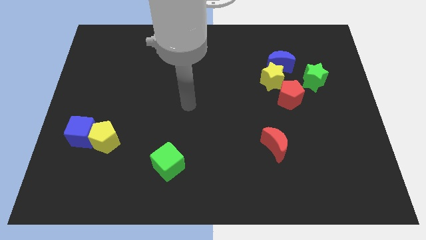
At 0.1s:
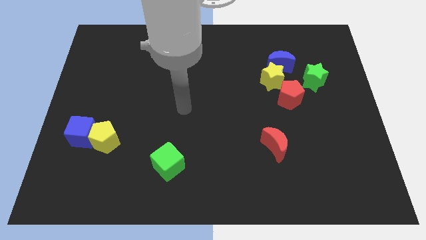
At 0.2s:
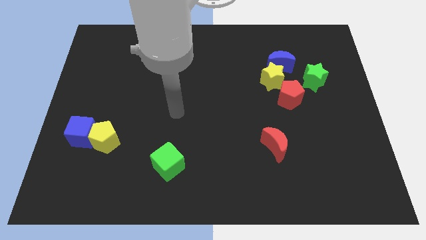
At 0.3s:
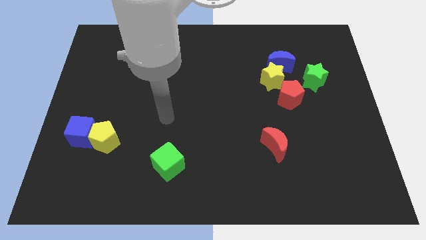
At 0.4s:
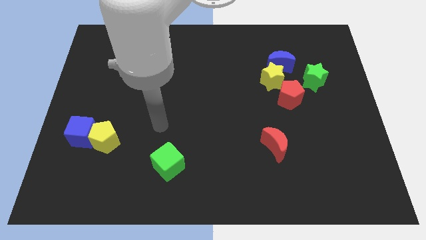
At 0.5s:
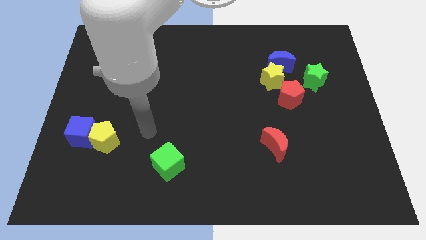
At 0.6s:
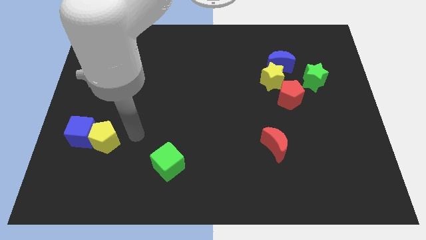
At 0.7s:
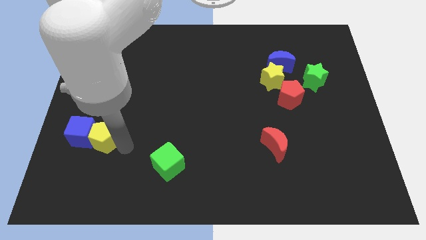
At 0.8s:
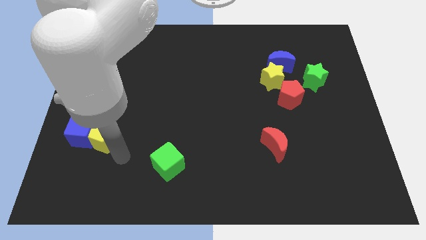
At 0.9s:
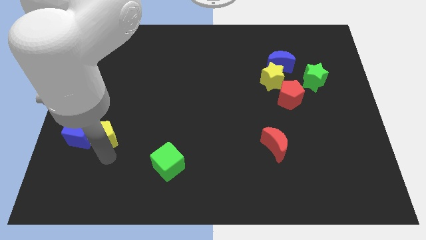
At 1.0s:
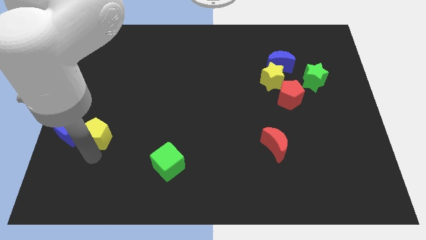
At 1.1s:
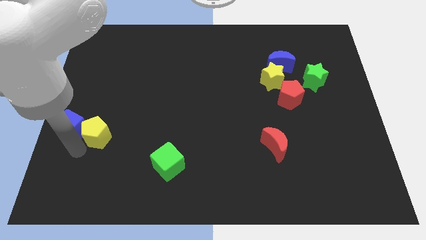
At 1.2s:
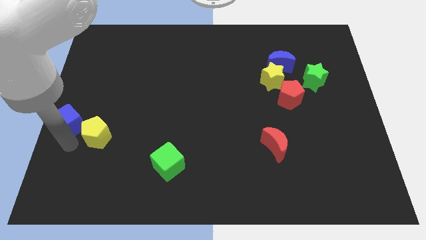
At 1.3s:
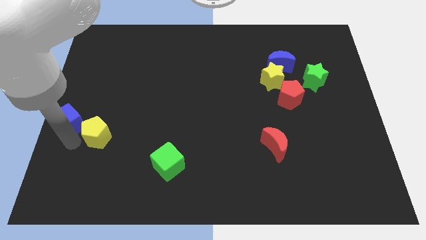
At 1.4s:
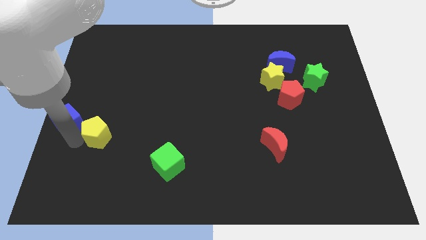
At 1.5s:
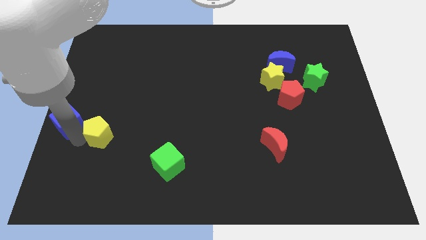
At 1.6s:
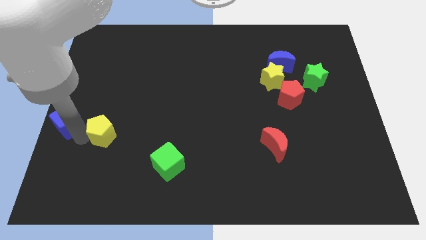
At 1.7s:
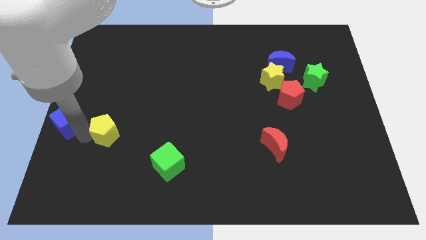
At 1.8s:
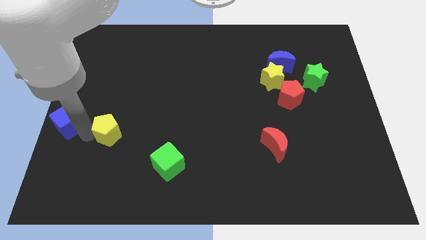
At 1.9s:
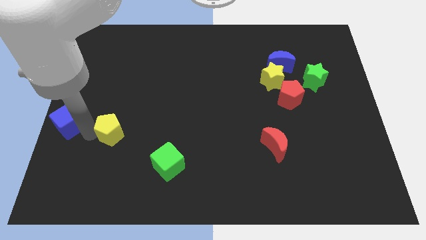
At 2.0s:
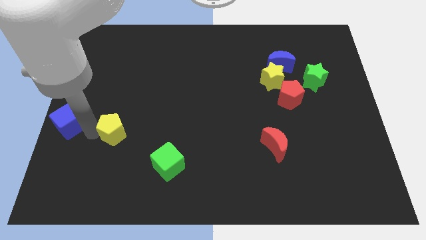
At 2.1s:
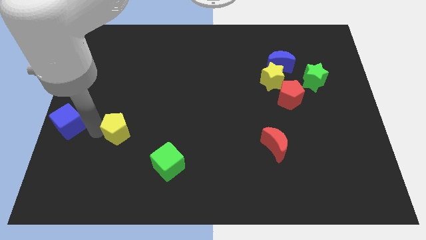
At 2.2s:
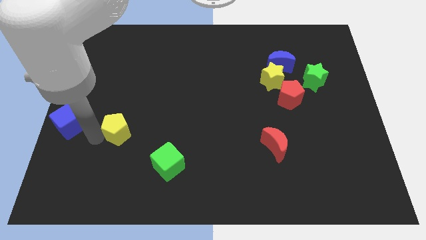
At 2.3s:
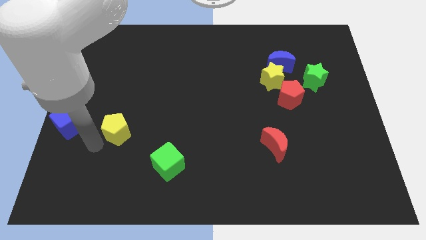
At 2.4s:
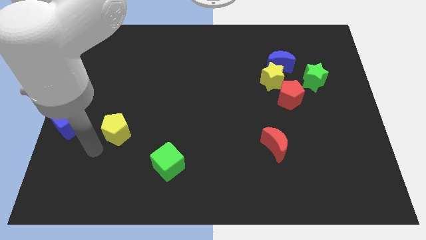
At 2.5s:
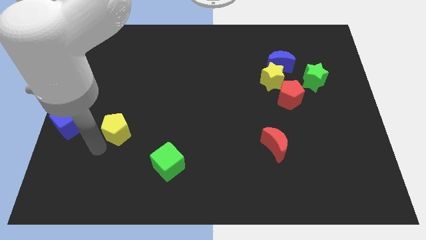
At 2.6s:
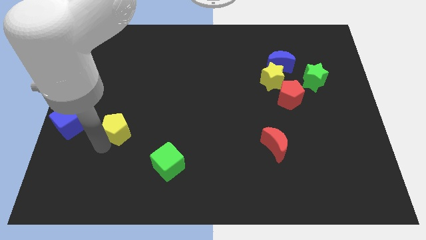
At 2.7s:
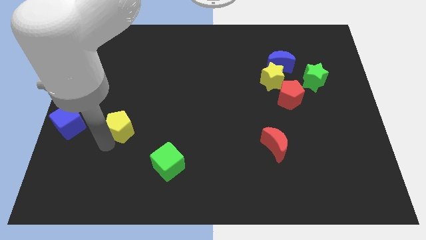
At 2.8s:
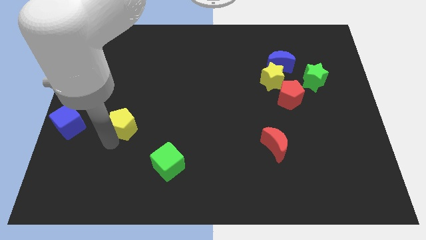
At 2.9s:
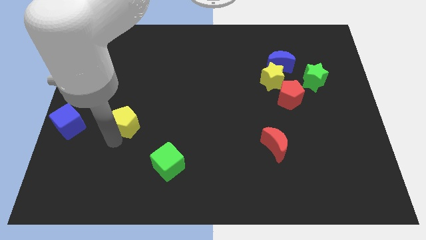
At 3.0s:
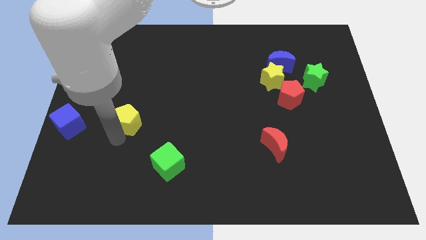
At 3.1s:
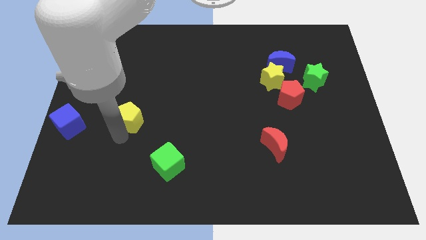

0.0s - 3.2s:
slightly slide the yellow pentagon up and to the right diagonally

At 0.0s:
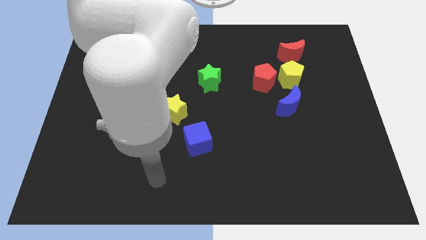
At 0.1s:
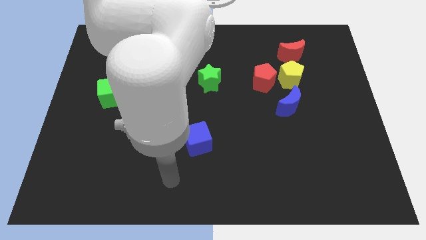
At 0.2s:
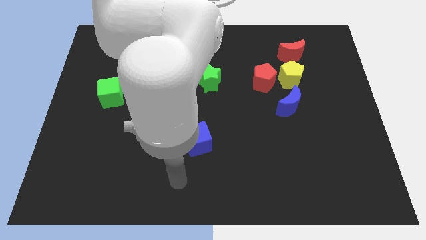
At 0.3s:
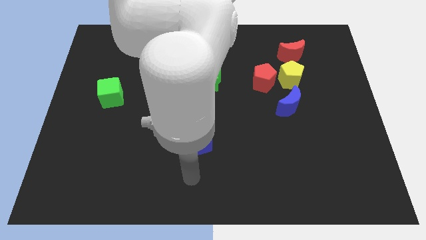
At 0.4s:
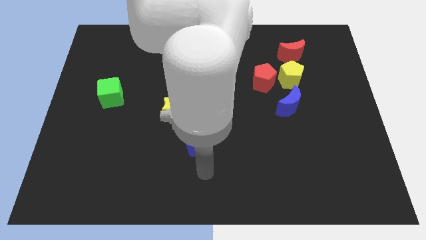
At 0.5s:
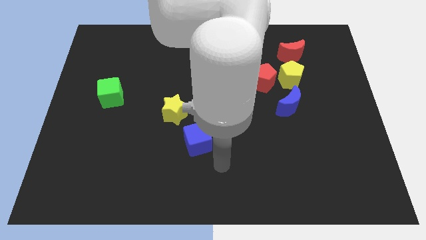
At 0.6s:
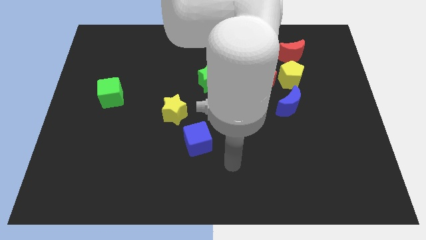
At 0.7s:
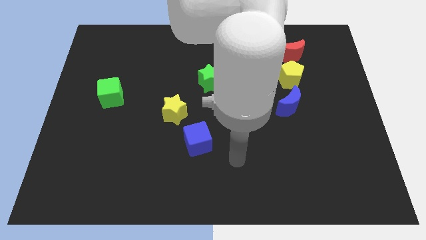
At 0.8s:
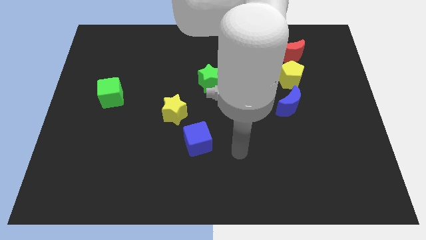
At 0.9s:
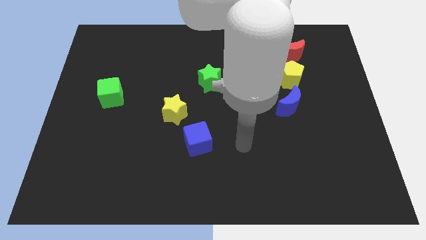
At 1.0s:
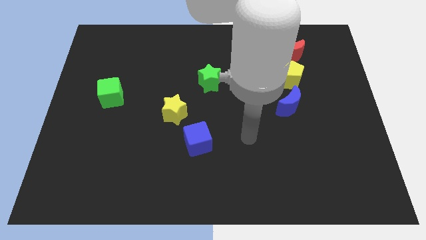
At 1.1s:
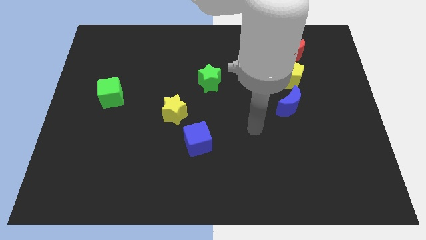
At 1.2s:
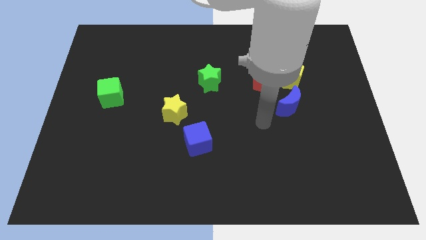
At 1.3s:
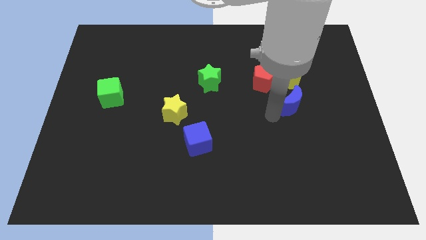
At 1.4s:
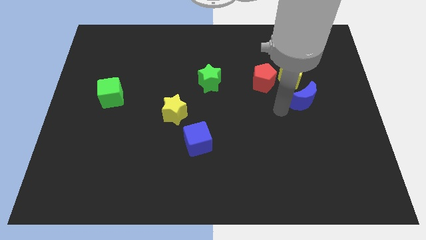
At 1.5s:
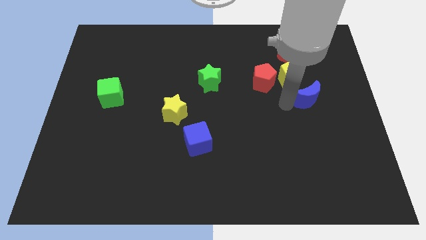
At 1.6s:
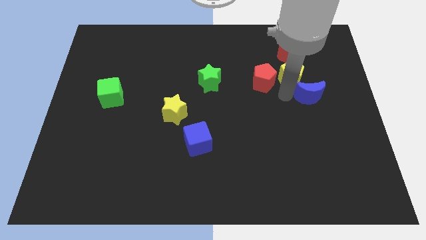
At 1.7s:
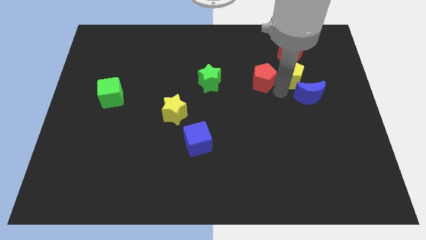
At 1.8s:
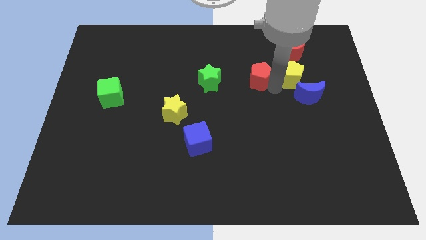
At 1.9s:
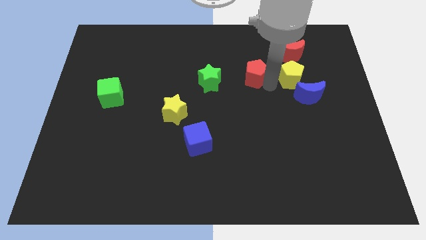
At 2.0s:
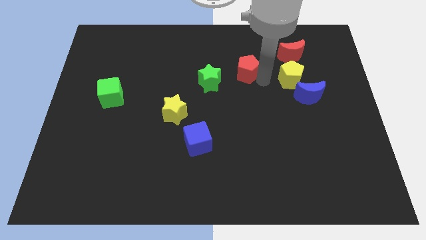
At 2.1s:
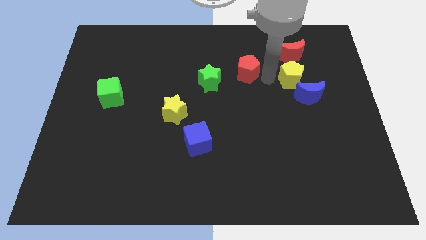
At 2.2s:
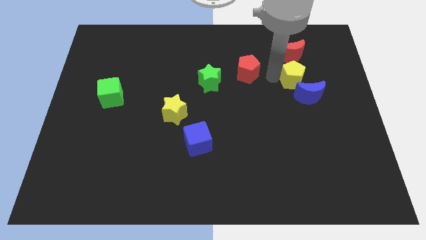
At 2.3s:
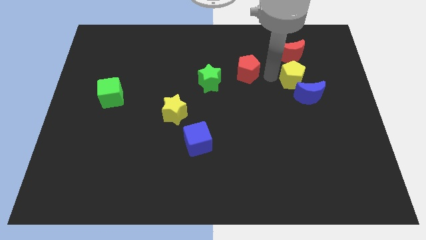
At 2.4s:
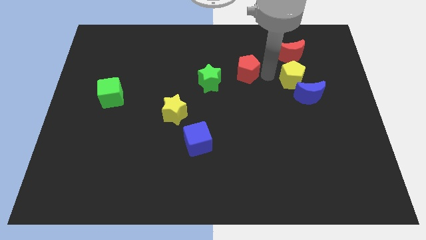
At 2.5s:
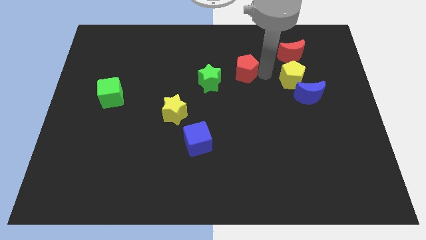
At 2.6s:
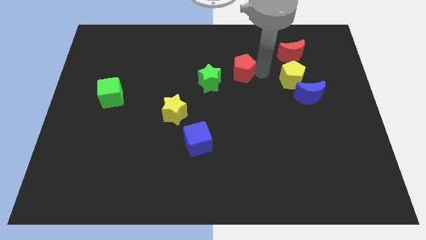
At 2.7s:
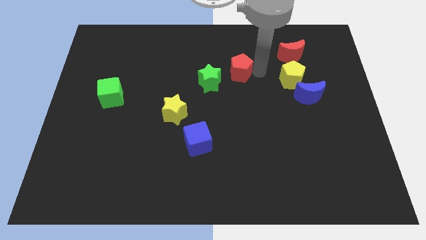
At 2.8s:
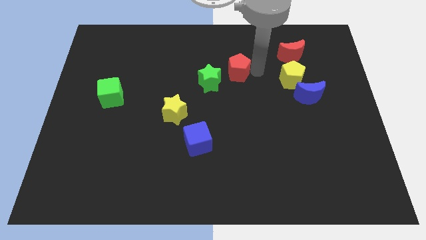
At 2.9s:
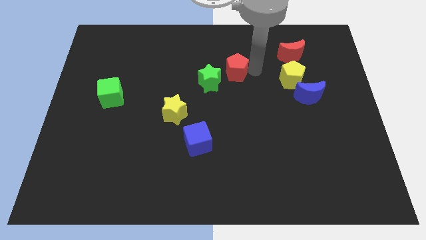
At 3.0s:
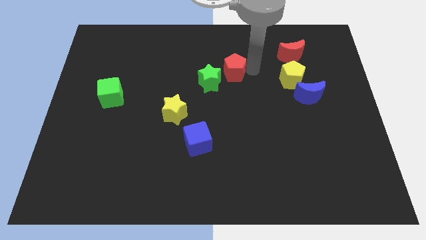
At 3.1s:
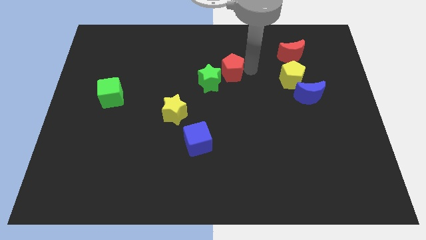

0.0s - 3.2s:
push the red pentagon a little bit left

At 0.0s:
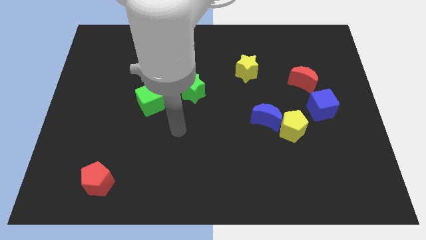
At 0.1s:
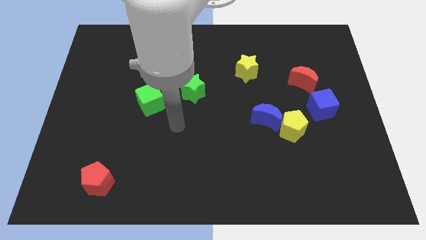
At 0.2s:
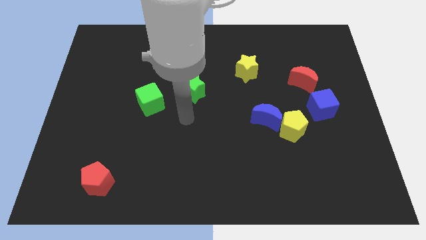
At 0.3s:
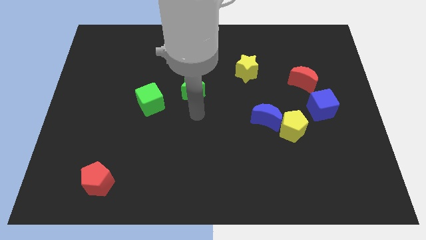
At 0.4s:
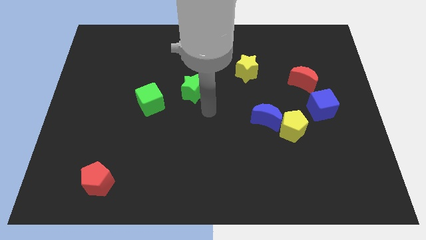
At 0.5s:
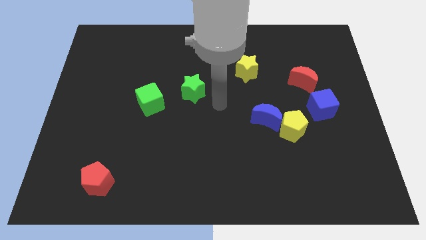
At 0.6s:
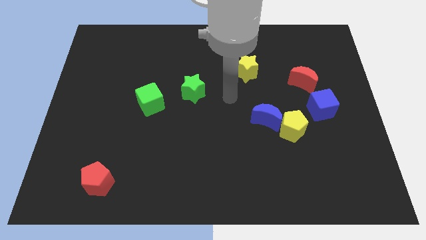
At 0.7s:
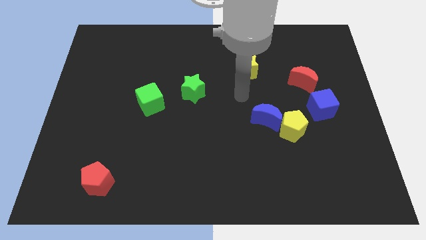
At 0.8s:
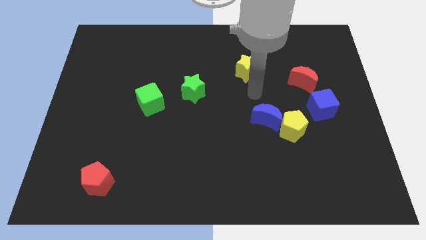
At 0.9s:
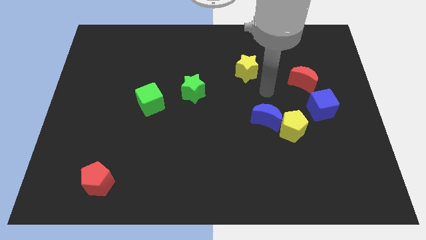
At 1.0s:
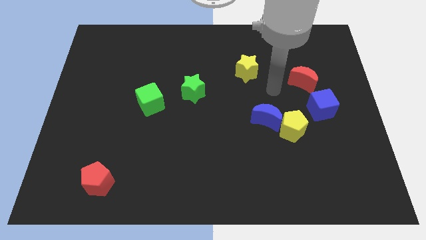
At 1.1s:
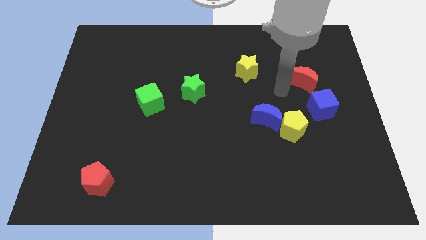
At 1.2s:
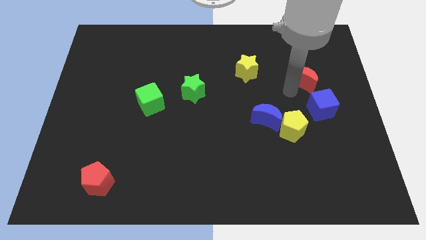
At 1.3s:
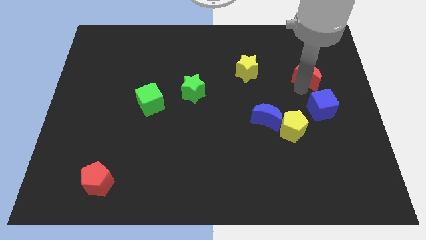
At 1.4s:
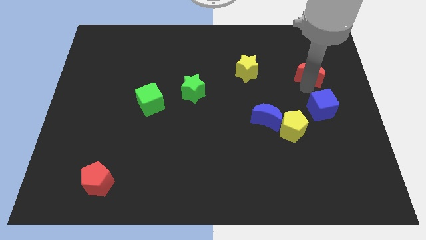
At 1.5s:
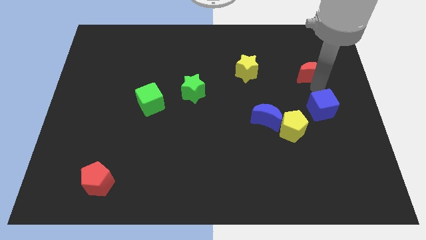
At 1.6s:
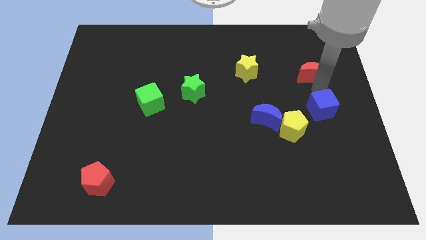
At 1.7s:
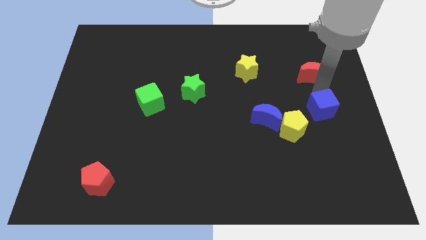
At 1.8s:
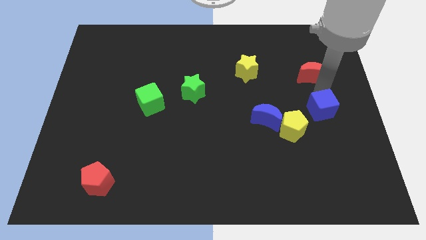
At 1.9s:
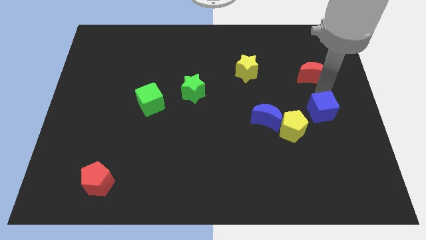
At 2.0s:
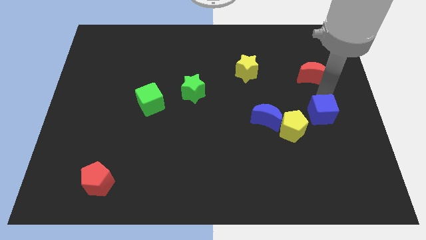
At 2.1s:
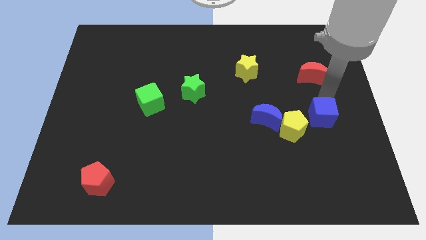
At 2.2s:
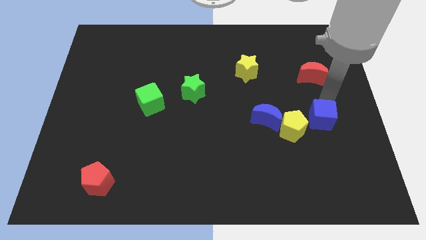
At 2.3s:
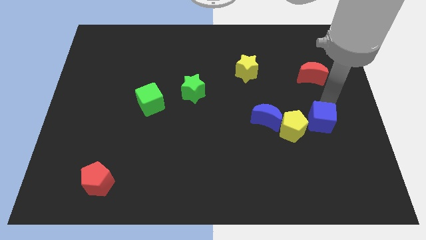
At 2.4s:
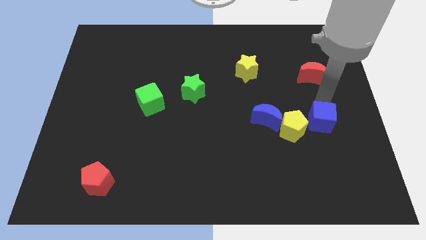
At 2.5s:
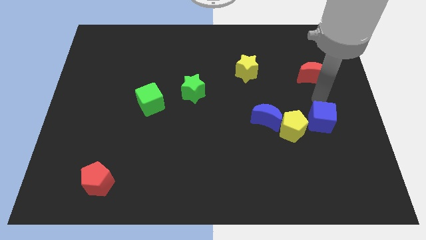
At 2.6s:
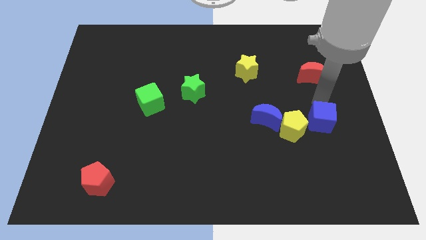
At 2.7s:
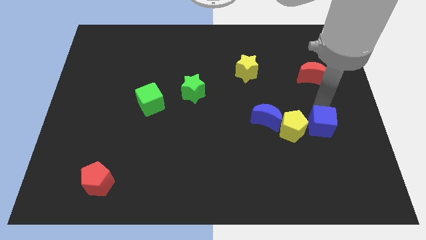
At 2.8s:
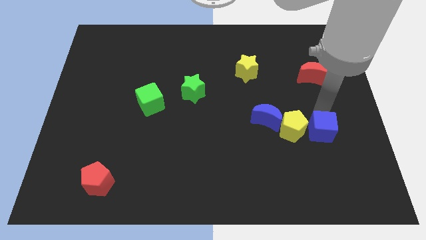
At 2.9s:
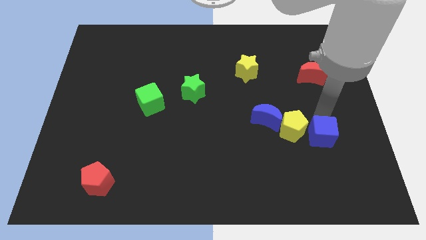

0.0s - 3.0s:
slightly push the blue cube down
